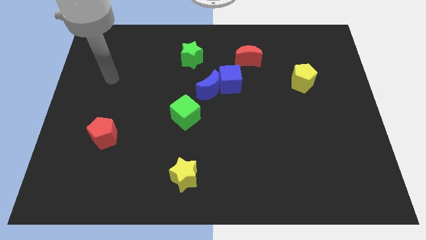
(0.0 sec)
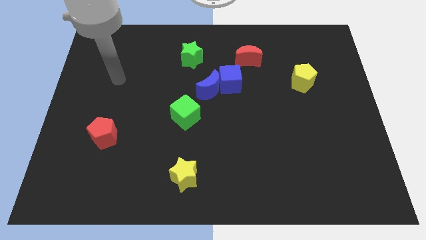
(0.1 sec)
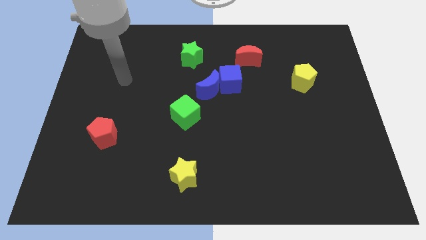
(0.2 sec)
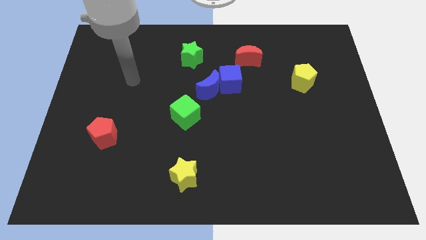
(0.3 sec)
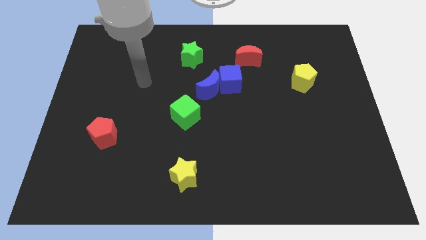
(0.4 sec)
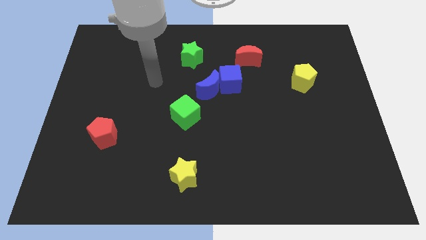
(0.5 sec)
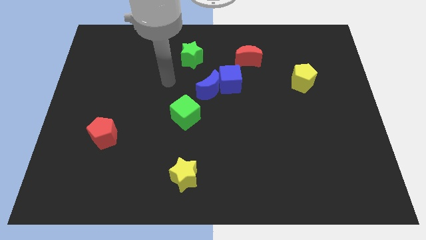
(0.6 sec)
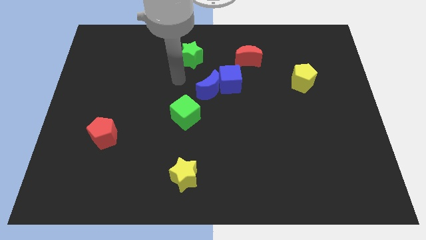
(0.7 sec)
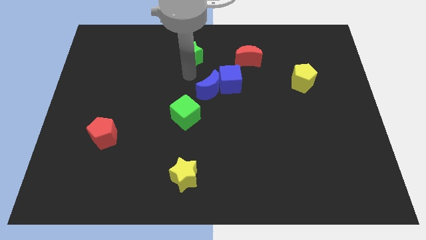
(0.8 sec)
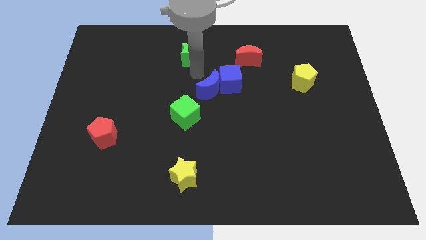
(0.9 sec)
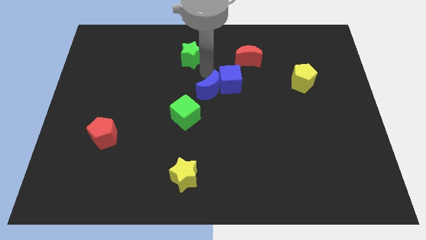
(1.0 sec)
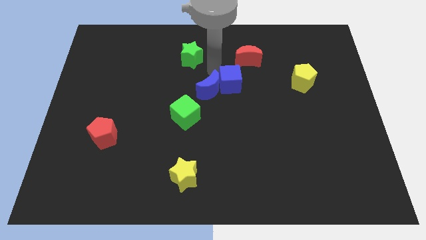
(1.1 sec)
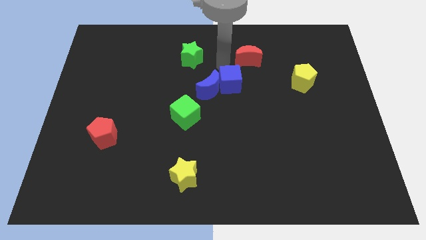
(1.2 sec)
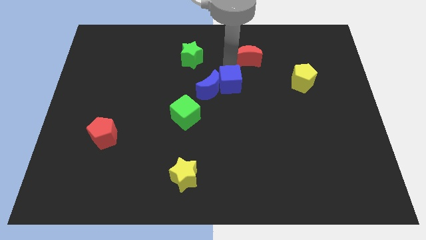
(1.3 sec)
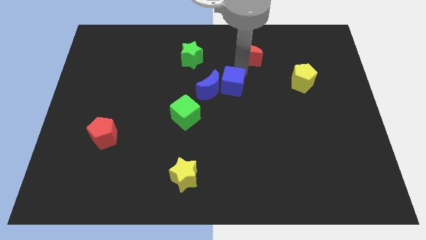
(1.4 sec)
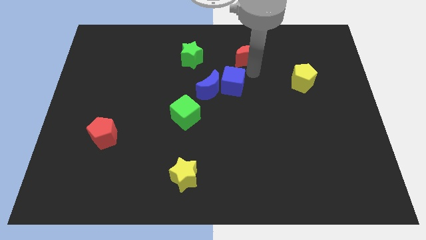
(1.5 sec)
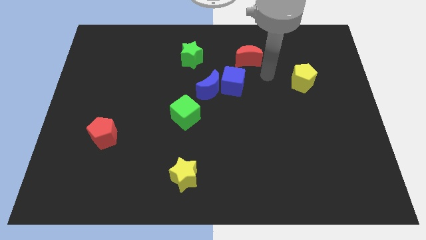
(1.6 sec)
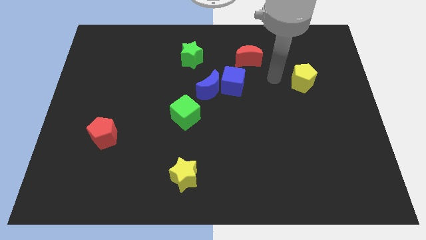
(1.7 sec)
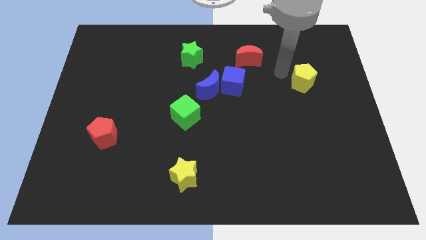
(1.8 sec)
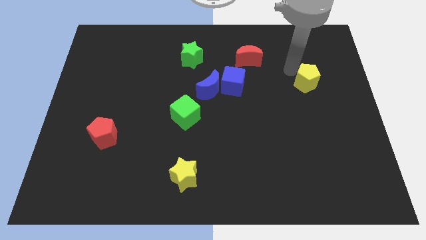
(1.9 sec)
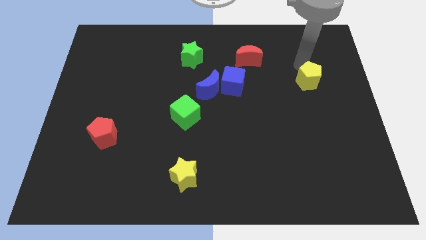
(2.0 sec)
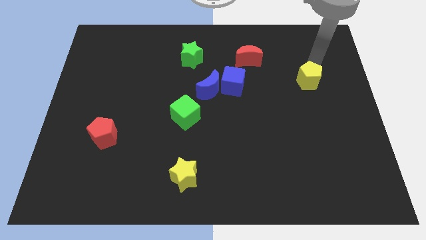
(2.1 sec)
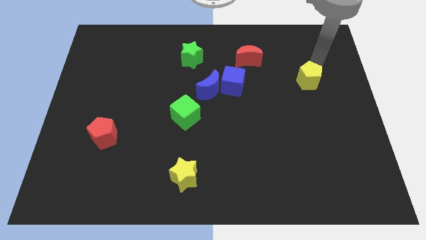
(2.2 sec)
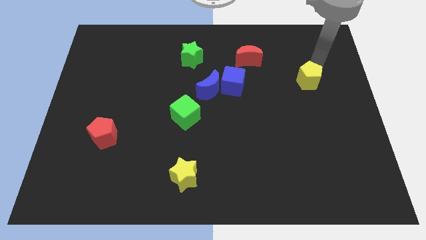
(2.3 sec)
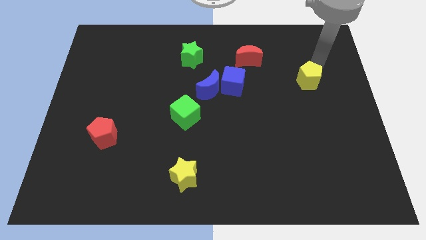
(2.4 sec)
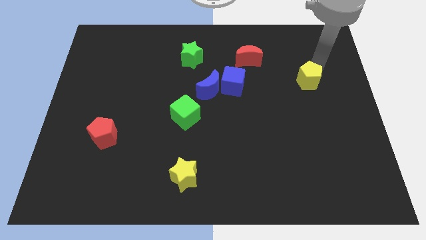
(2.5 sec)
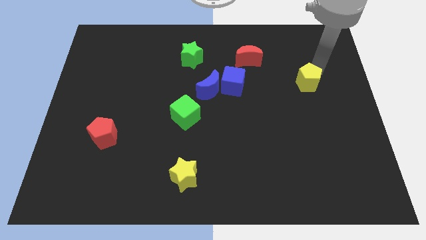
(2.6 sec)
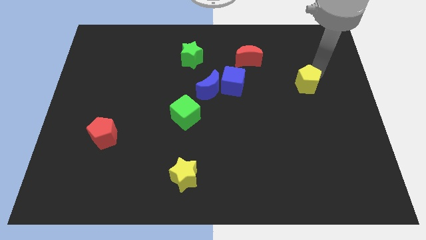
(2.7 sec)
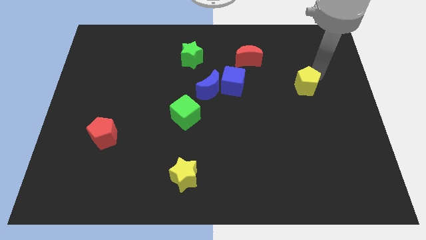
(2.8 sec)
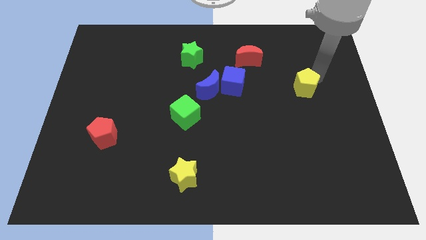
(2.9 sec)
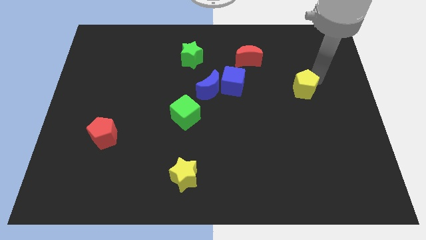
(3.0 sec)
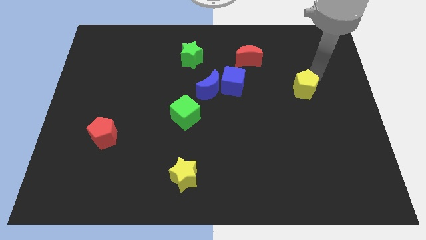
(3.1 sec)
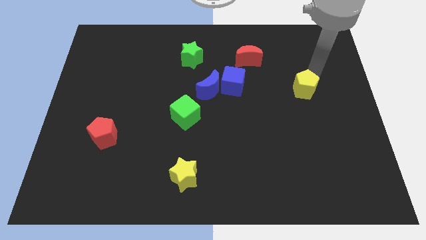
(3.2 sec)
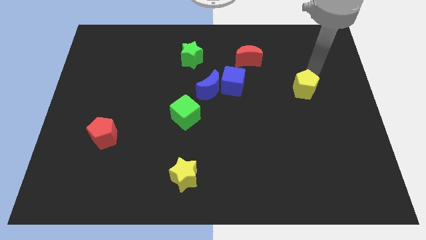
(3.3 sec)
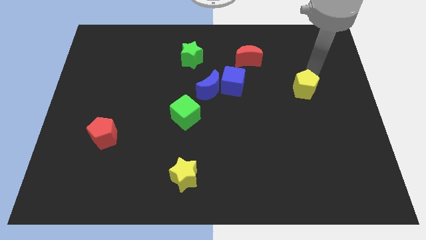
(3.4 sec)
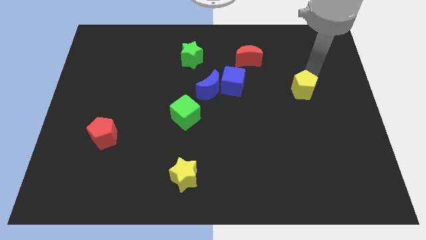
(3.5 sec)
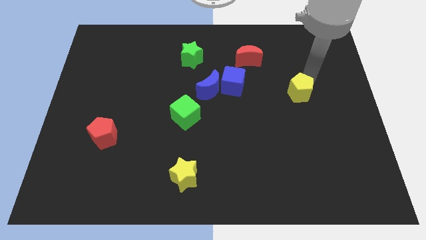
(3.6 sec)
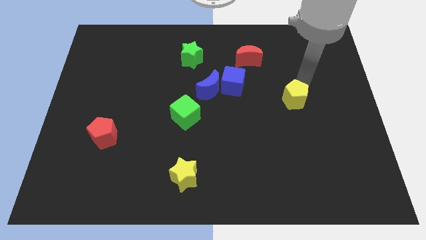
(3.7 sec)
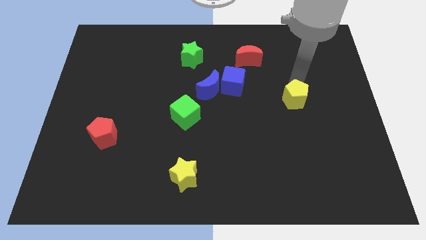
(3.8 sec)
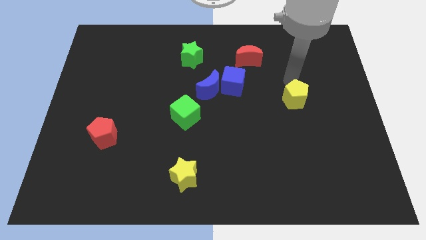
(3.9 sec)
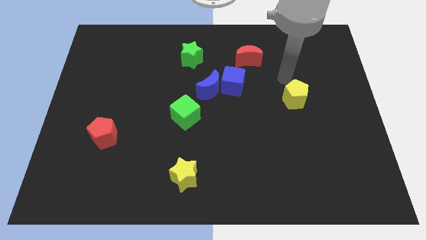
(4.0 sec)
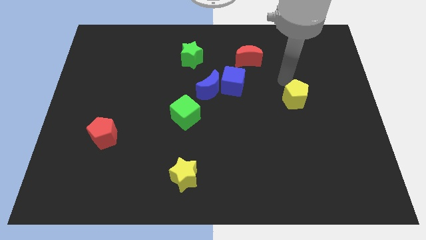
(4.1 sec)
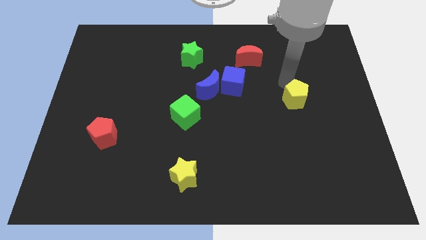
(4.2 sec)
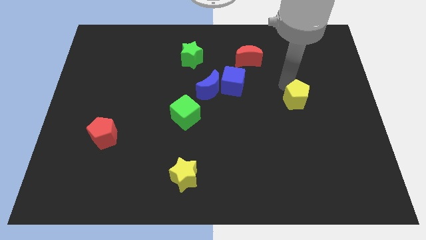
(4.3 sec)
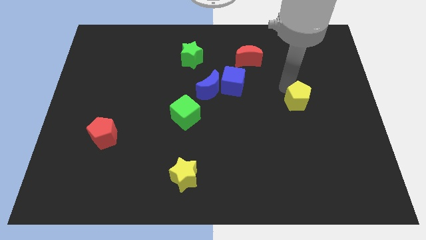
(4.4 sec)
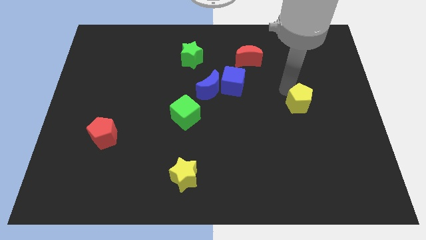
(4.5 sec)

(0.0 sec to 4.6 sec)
slightly move the yellow pentagon down

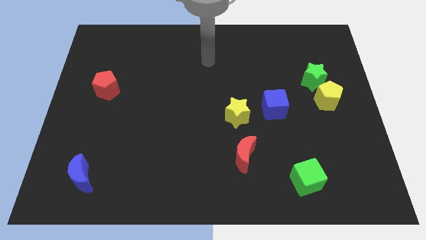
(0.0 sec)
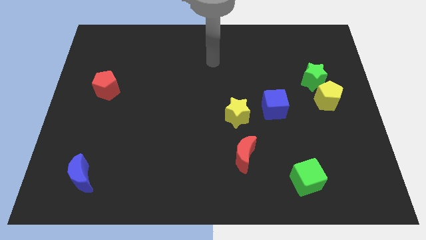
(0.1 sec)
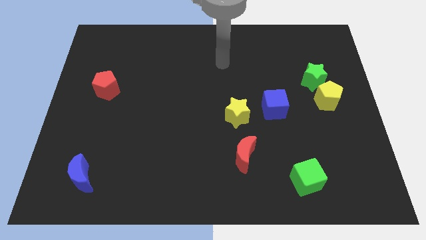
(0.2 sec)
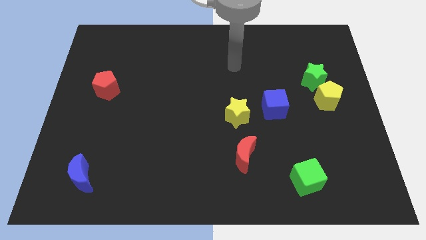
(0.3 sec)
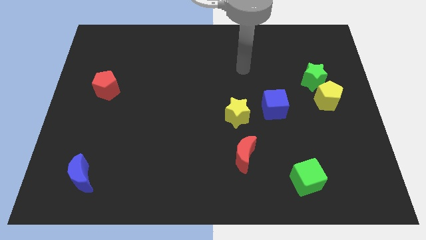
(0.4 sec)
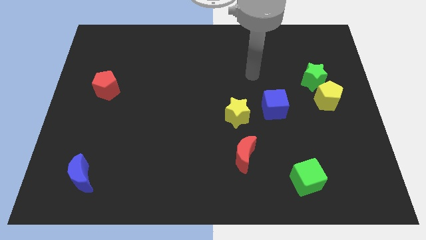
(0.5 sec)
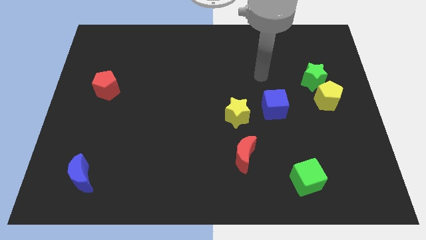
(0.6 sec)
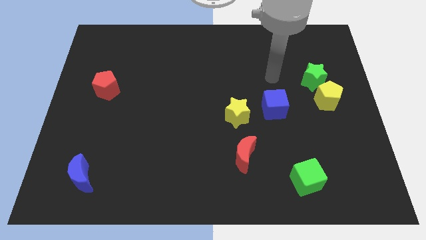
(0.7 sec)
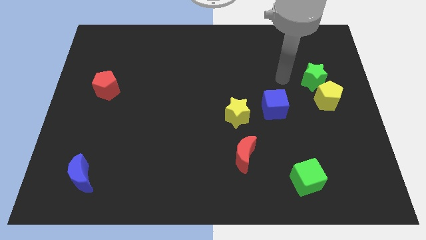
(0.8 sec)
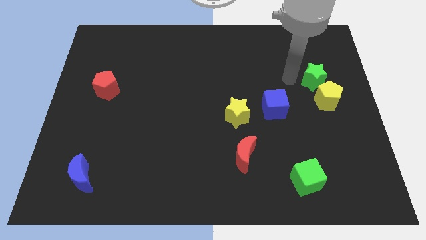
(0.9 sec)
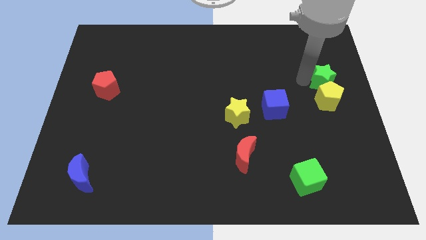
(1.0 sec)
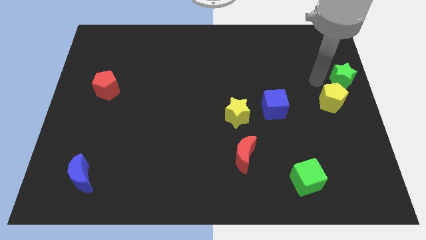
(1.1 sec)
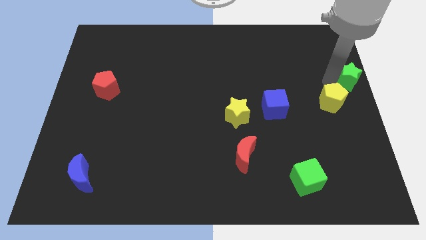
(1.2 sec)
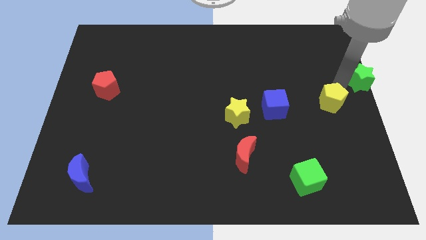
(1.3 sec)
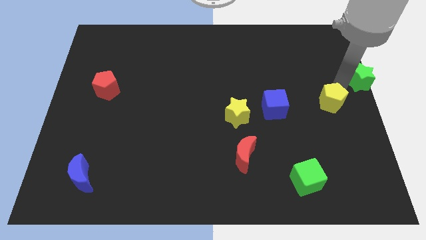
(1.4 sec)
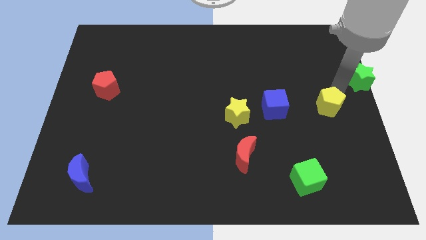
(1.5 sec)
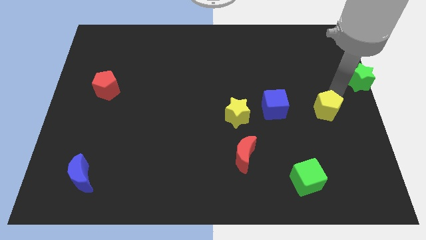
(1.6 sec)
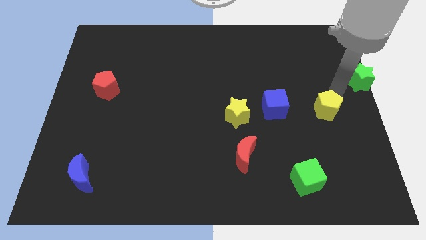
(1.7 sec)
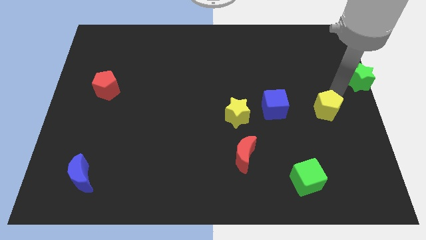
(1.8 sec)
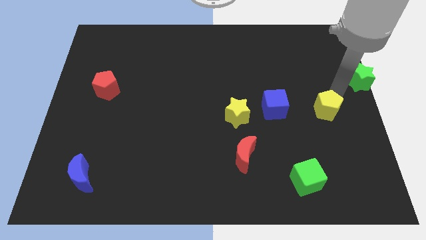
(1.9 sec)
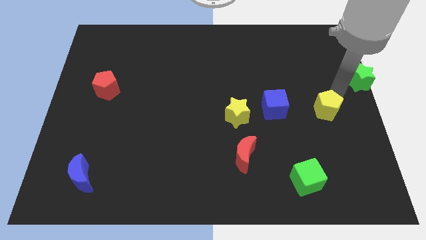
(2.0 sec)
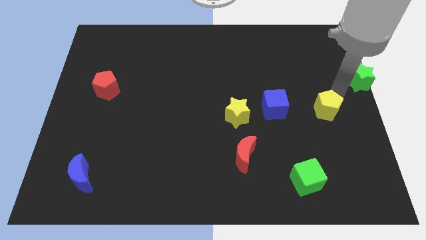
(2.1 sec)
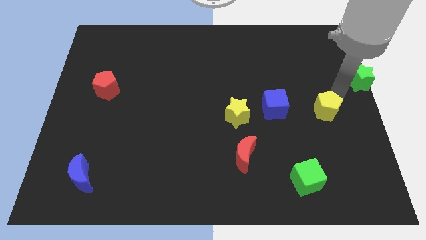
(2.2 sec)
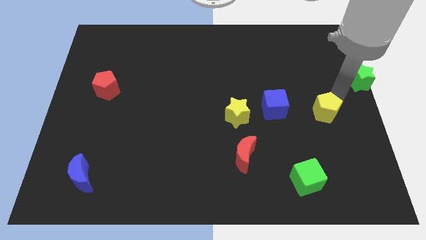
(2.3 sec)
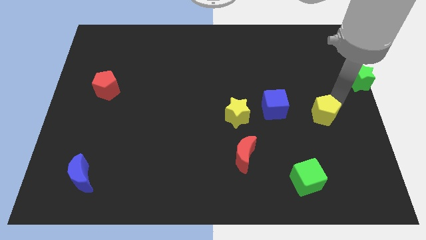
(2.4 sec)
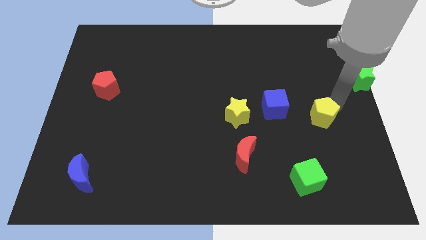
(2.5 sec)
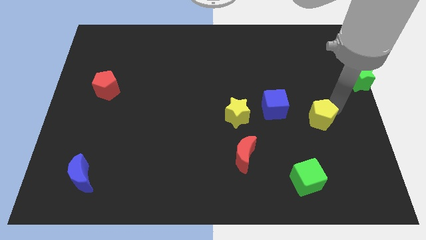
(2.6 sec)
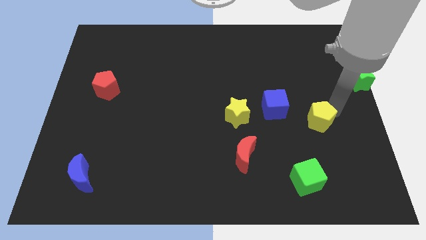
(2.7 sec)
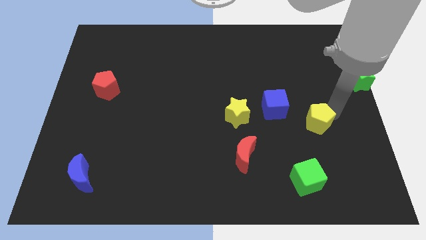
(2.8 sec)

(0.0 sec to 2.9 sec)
slide the yellow pentagon down and to the left diagonally slightly

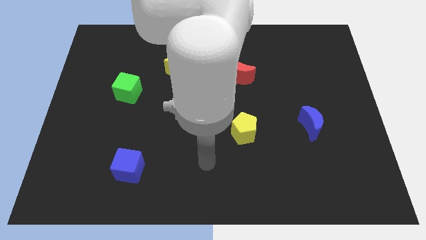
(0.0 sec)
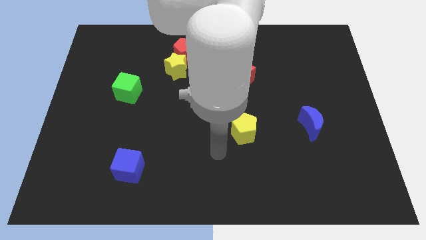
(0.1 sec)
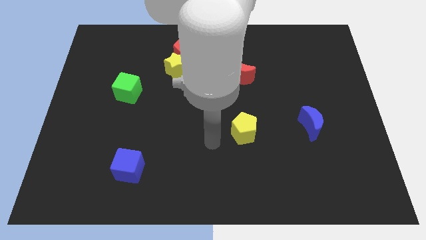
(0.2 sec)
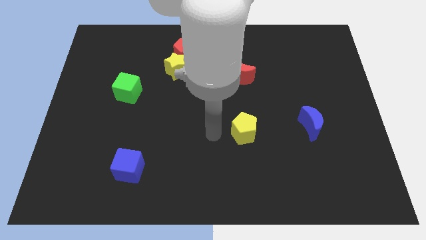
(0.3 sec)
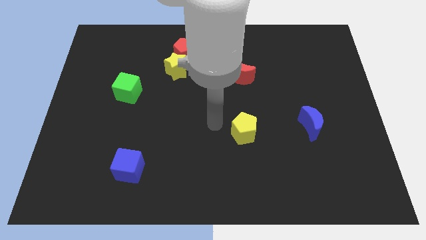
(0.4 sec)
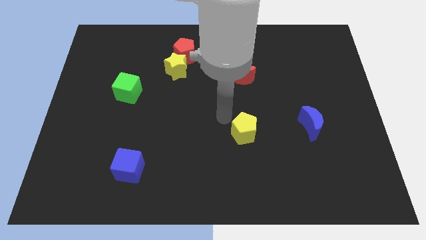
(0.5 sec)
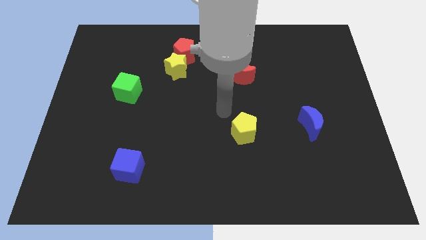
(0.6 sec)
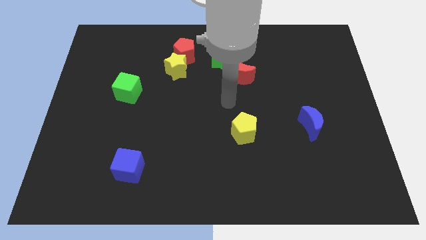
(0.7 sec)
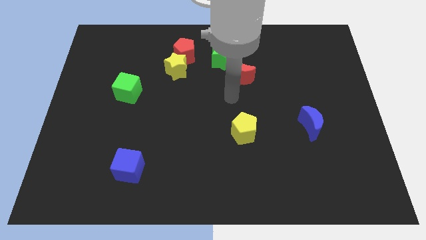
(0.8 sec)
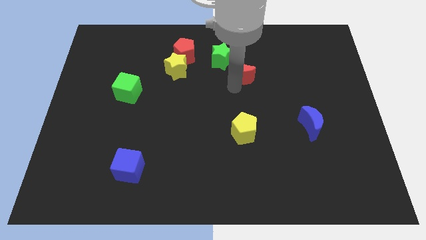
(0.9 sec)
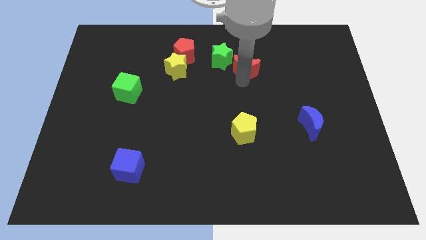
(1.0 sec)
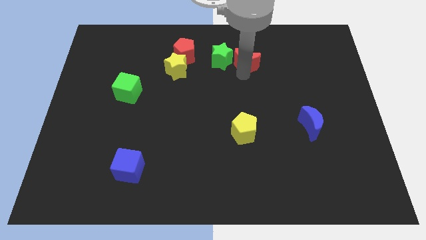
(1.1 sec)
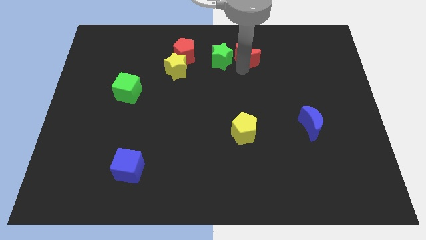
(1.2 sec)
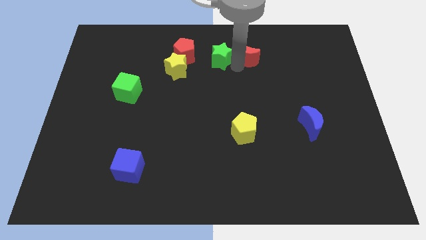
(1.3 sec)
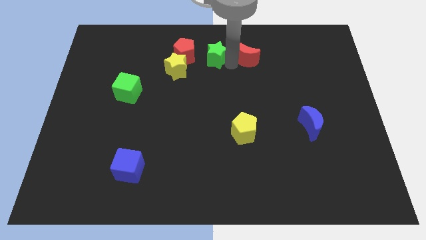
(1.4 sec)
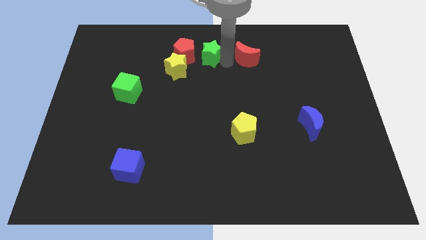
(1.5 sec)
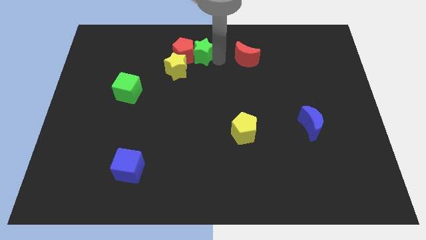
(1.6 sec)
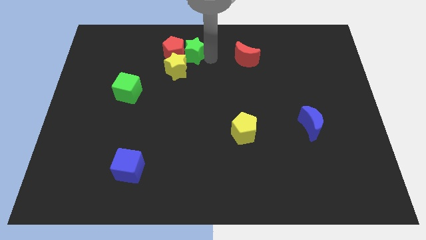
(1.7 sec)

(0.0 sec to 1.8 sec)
push the green star to the left a little
